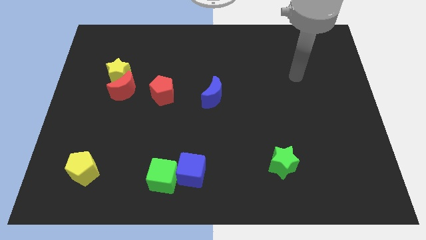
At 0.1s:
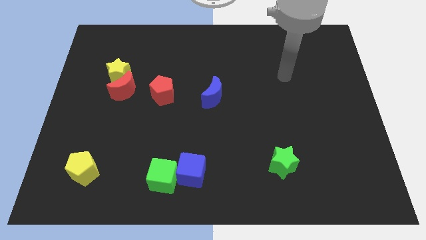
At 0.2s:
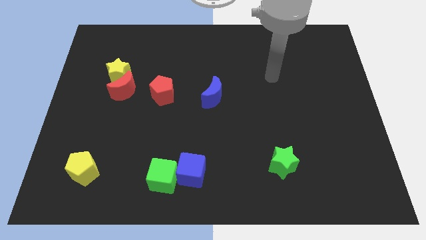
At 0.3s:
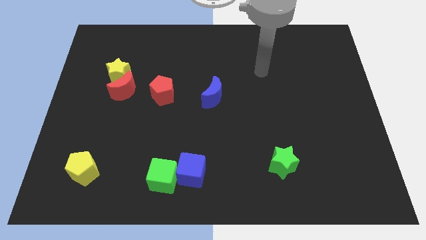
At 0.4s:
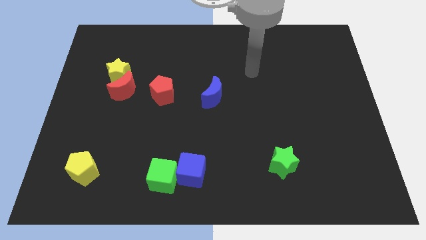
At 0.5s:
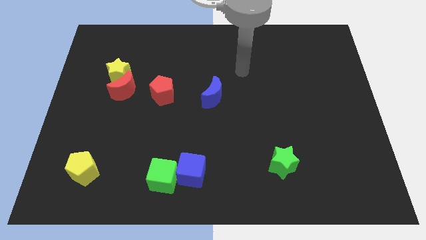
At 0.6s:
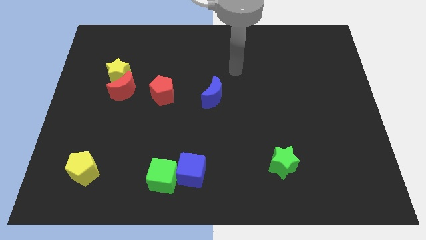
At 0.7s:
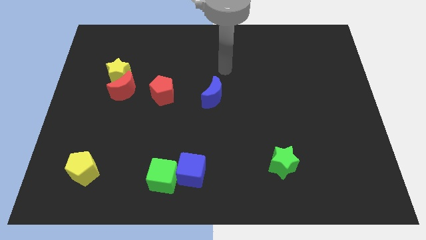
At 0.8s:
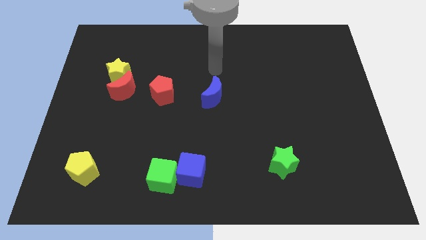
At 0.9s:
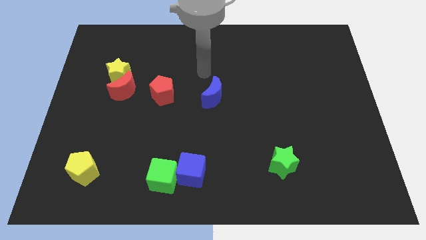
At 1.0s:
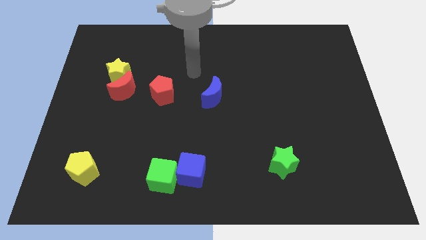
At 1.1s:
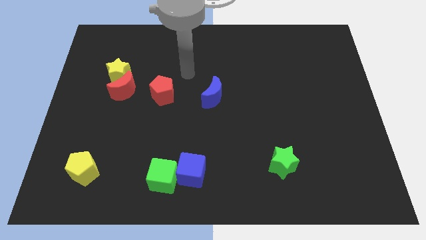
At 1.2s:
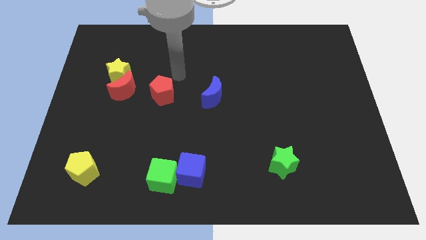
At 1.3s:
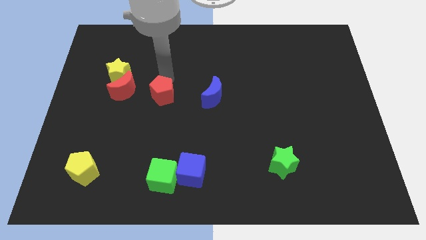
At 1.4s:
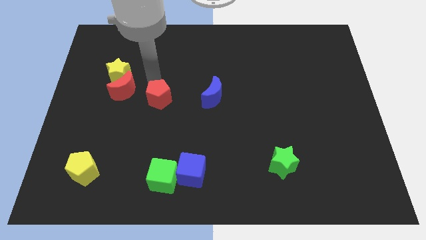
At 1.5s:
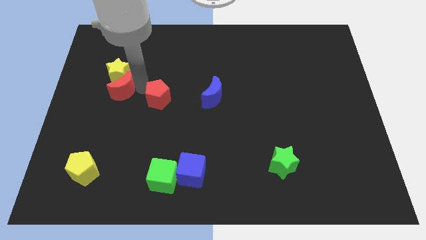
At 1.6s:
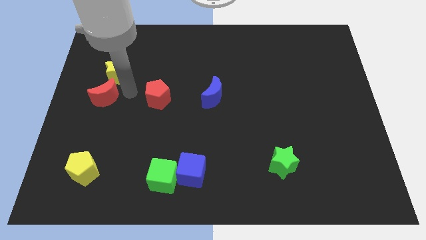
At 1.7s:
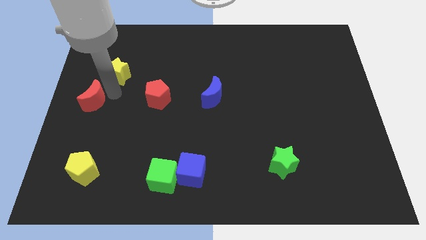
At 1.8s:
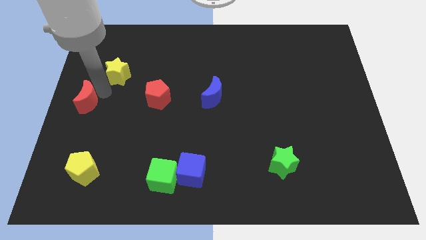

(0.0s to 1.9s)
pull the yellow star apart from the red moon

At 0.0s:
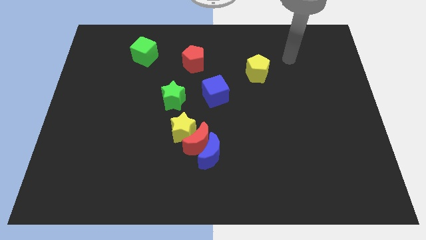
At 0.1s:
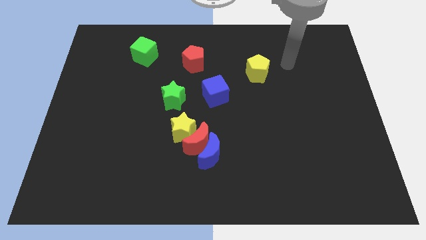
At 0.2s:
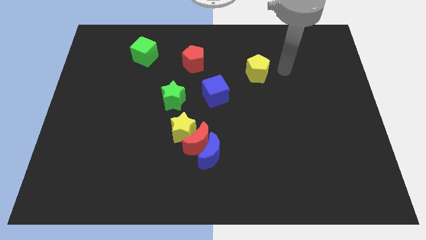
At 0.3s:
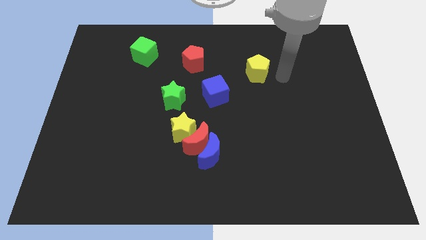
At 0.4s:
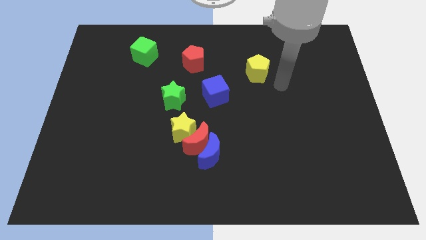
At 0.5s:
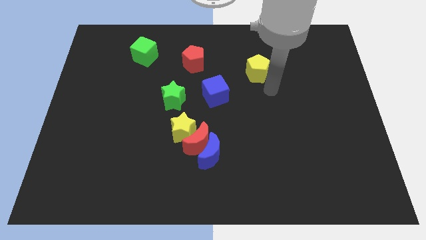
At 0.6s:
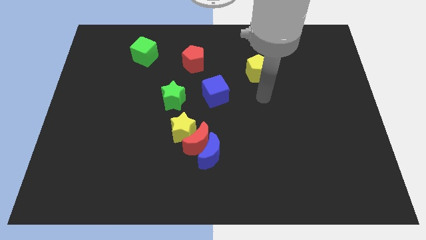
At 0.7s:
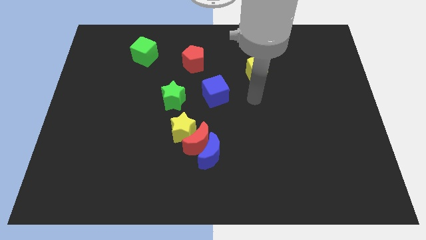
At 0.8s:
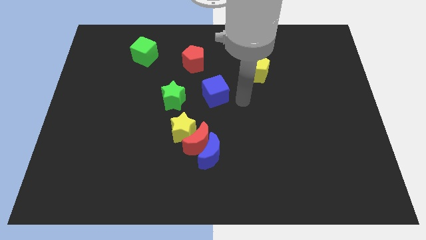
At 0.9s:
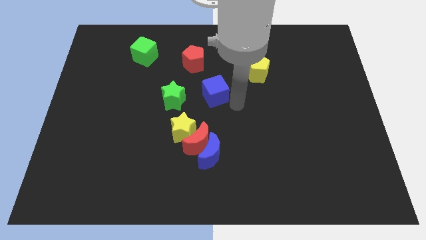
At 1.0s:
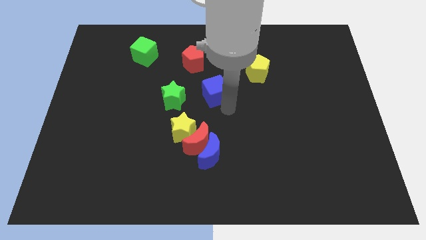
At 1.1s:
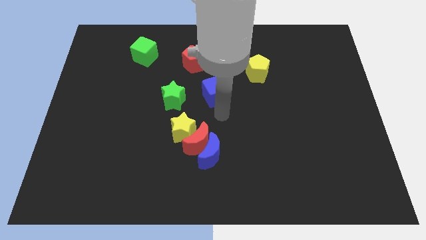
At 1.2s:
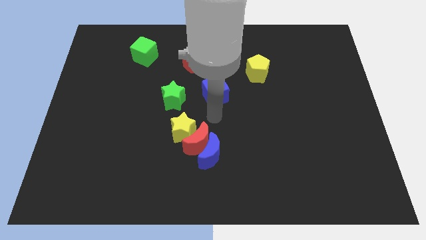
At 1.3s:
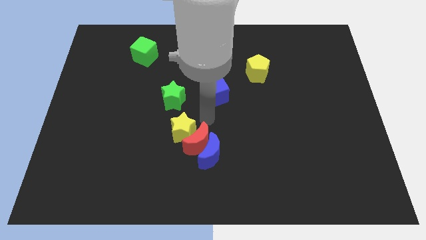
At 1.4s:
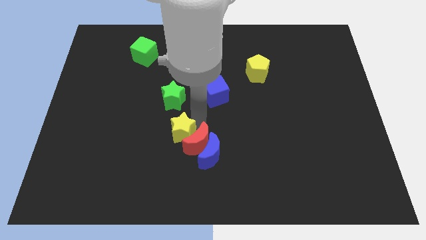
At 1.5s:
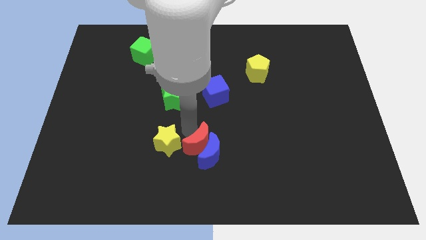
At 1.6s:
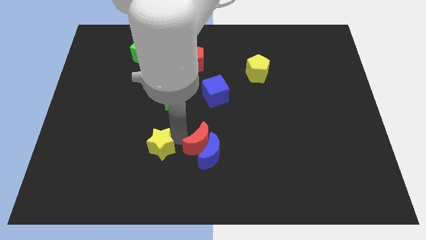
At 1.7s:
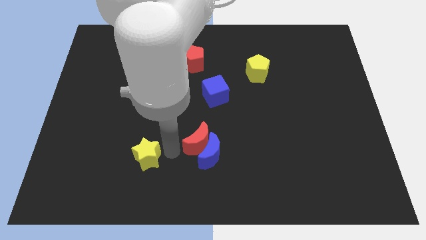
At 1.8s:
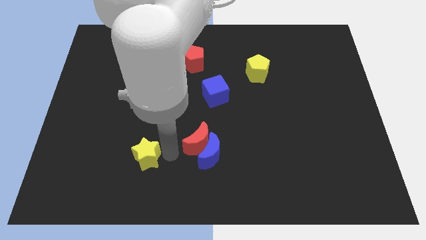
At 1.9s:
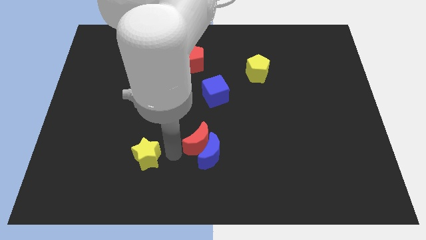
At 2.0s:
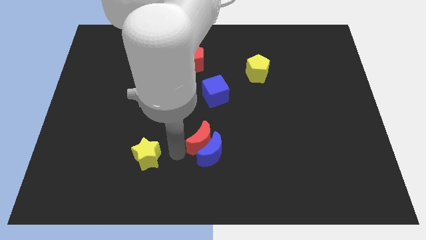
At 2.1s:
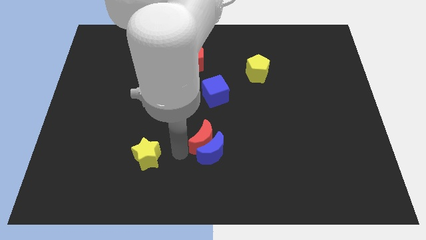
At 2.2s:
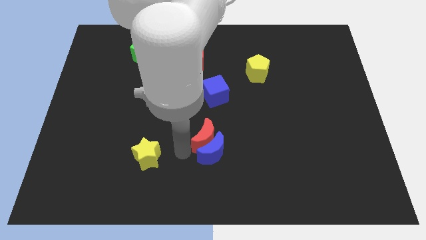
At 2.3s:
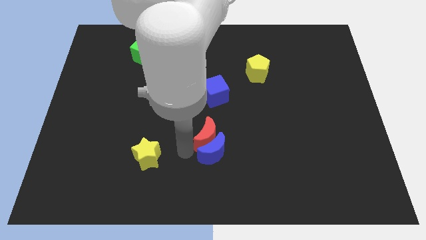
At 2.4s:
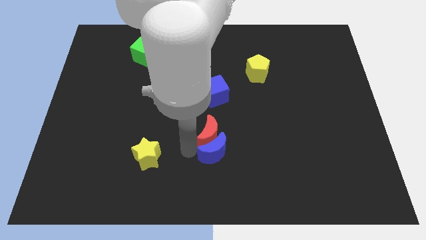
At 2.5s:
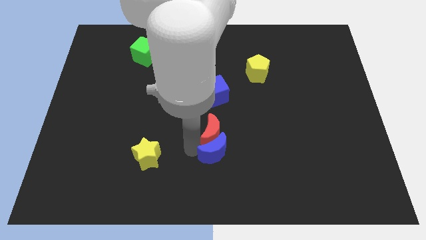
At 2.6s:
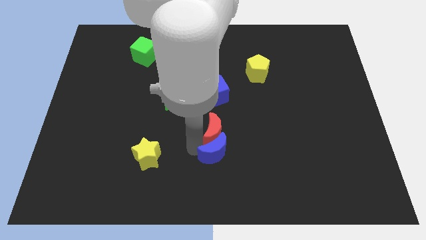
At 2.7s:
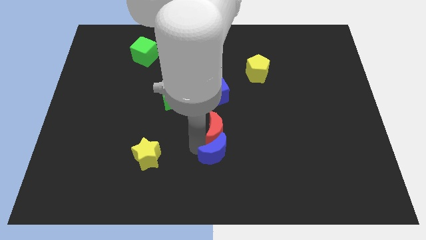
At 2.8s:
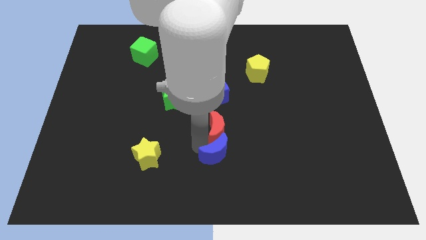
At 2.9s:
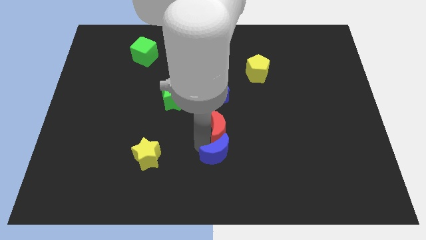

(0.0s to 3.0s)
move the red moon away from the blue moon and yellow star

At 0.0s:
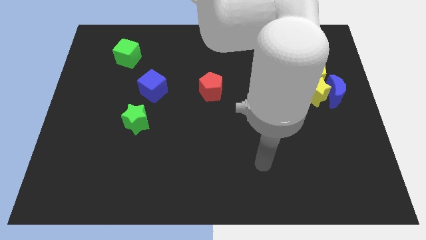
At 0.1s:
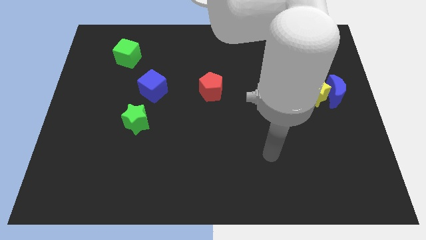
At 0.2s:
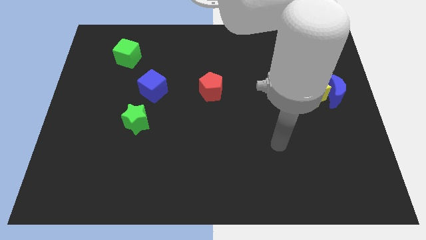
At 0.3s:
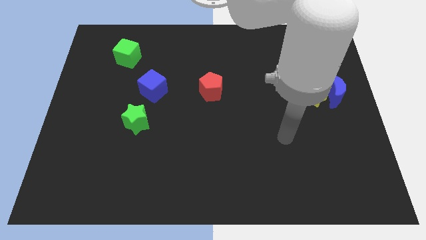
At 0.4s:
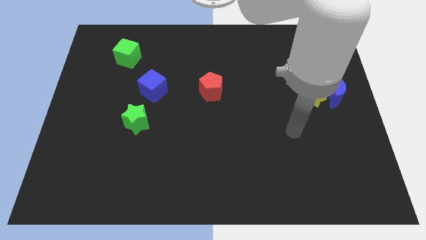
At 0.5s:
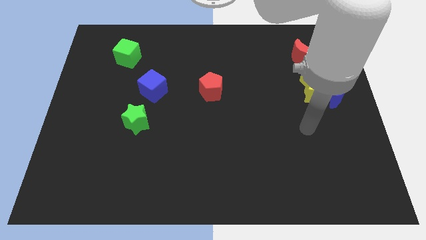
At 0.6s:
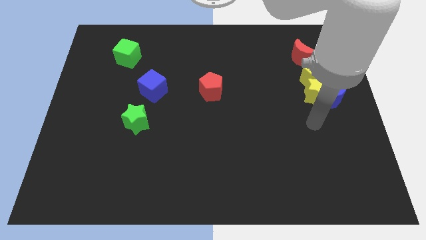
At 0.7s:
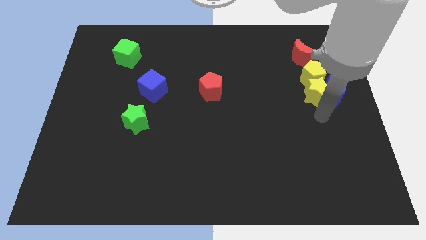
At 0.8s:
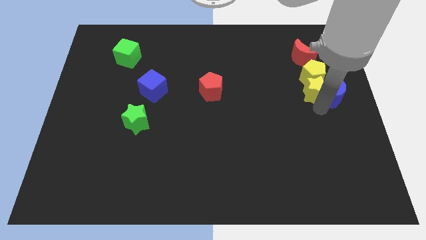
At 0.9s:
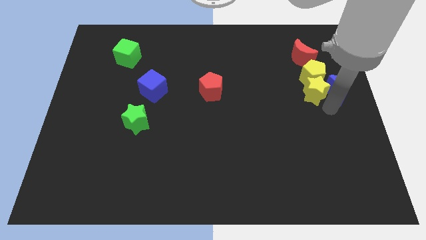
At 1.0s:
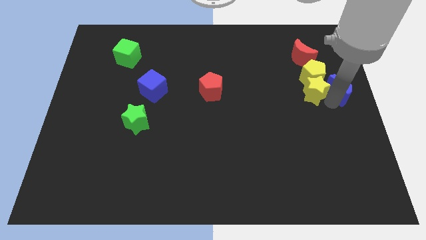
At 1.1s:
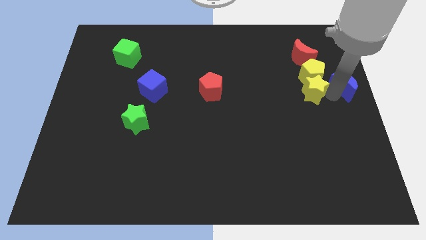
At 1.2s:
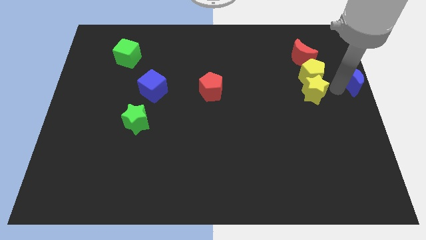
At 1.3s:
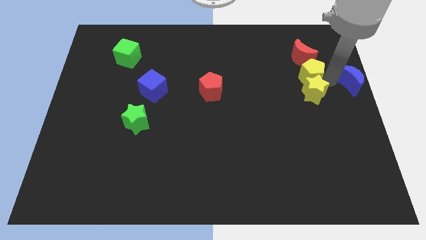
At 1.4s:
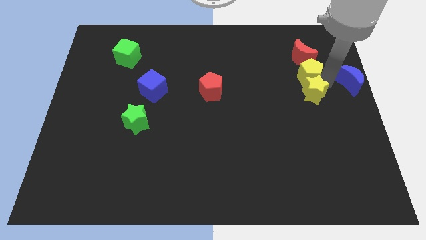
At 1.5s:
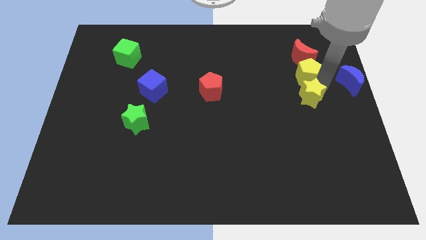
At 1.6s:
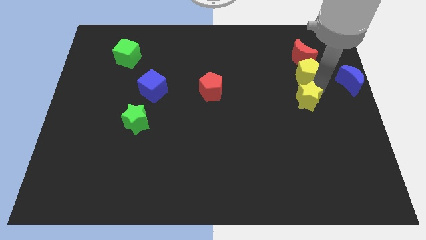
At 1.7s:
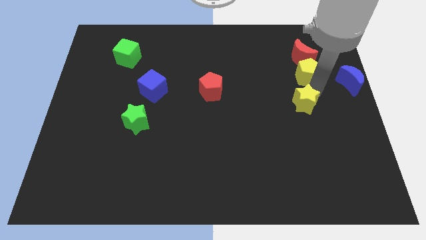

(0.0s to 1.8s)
move the yellow star away from the blue moon and yellow pentagon

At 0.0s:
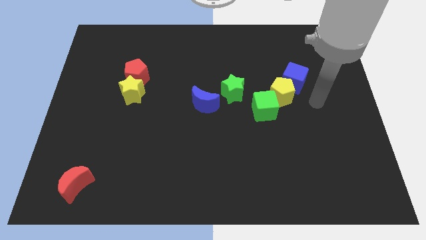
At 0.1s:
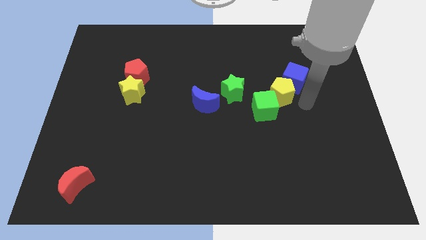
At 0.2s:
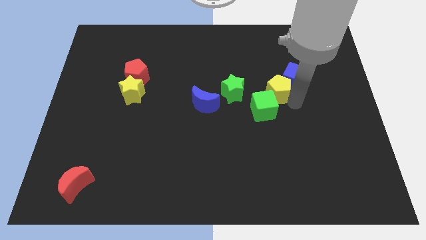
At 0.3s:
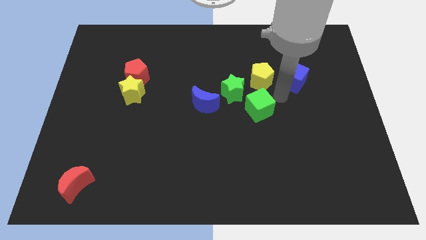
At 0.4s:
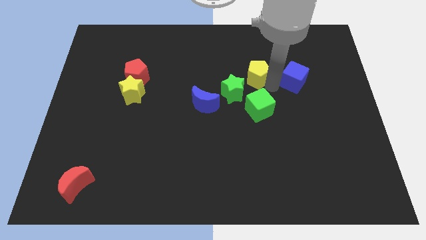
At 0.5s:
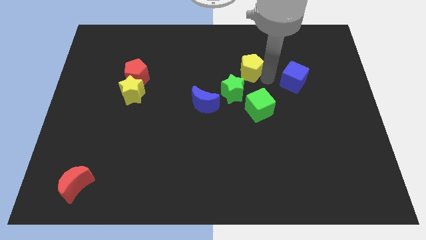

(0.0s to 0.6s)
pull the blue cube apart from the yellow pentagon

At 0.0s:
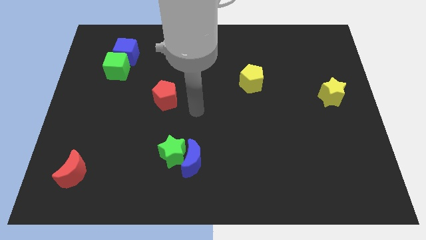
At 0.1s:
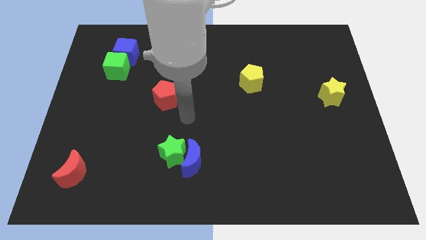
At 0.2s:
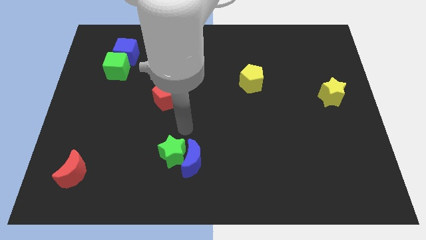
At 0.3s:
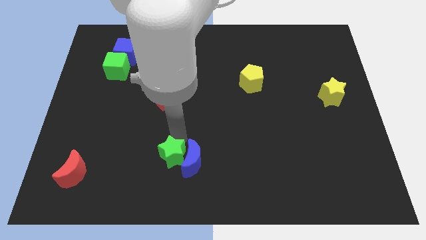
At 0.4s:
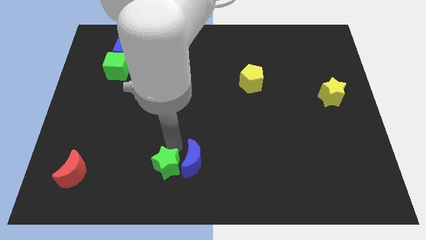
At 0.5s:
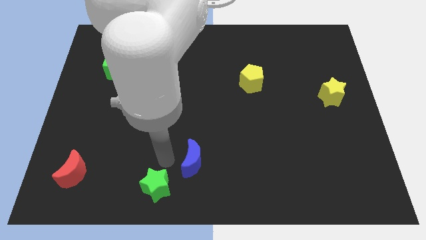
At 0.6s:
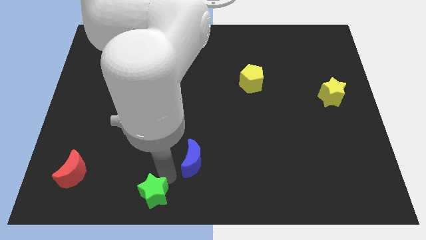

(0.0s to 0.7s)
separate the blue moon from the green star

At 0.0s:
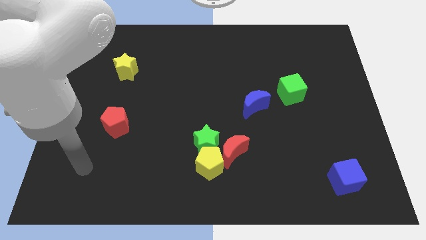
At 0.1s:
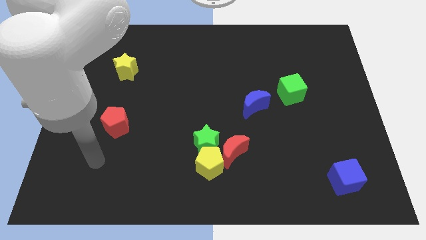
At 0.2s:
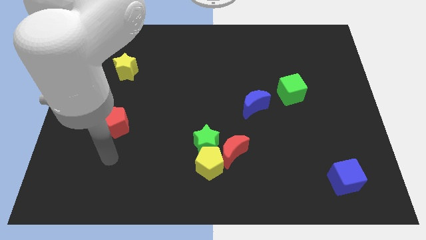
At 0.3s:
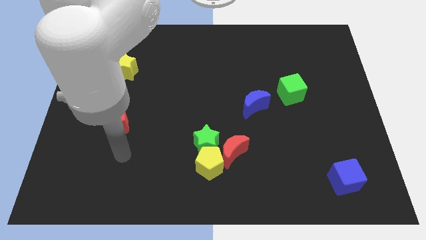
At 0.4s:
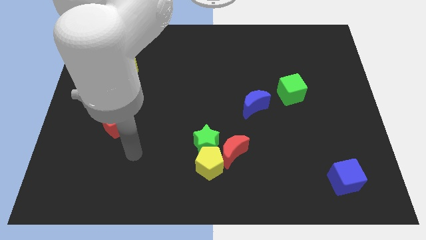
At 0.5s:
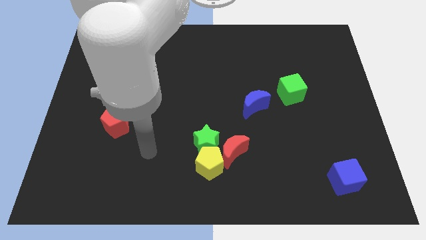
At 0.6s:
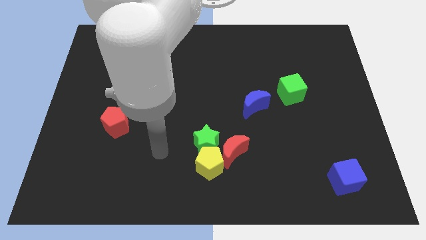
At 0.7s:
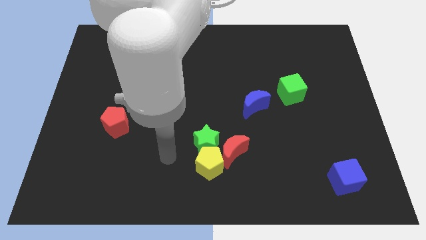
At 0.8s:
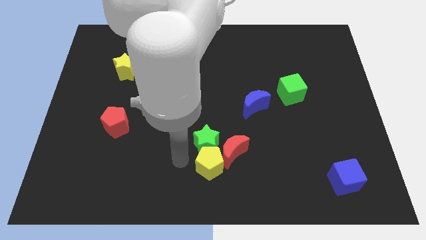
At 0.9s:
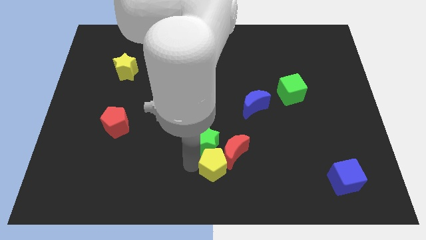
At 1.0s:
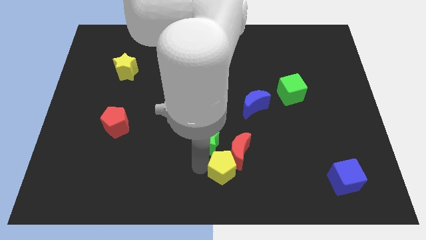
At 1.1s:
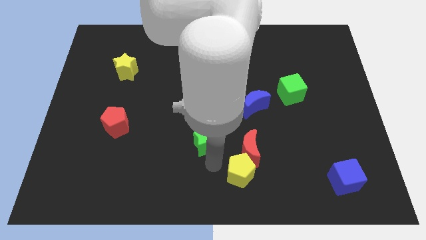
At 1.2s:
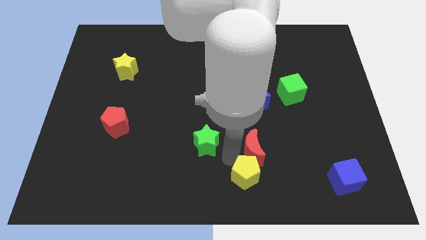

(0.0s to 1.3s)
separate the green star from the yellow pentagon and red moon
